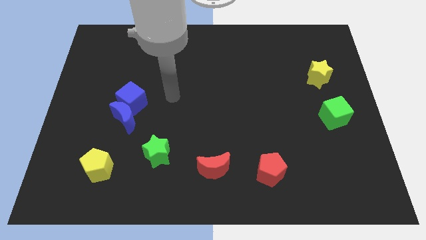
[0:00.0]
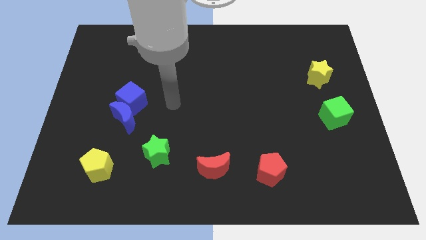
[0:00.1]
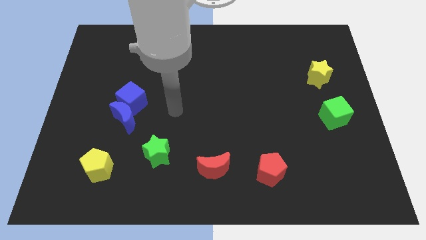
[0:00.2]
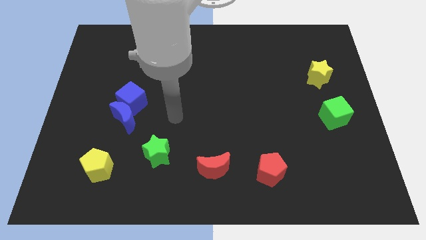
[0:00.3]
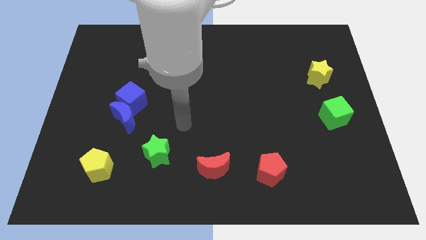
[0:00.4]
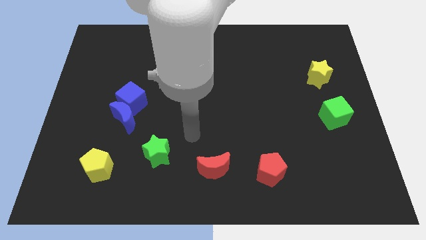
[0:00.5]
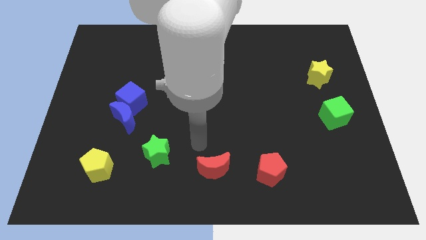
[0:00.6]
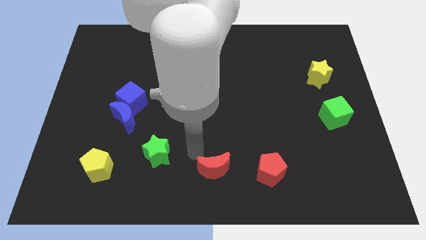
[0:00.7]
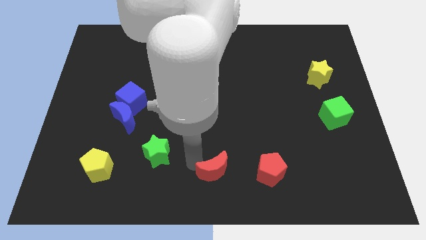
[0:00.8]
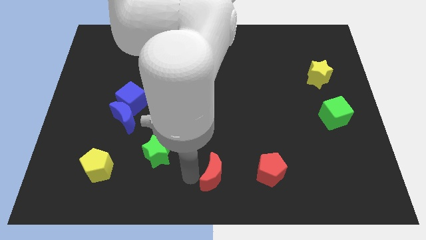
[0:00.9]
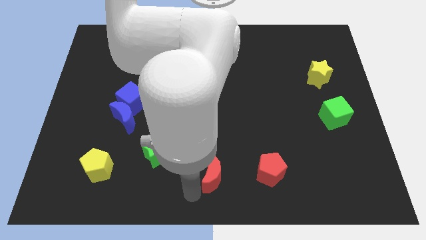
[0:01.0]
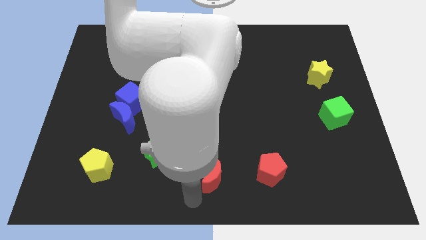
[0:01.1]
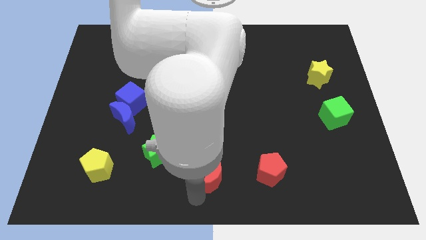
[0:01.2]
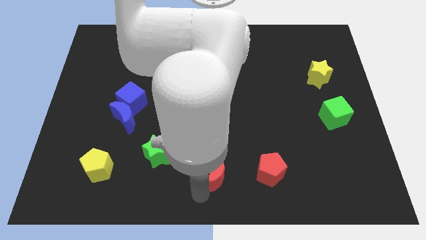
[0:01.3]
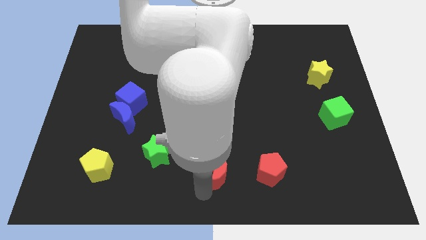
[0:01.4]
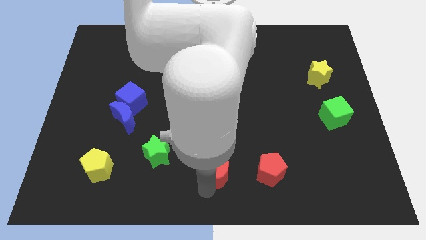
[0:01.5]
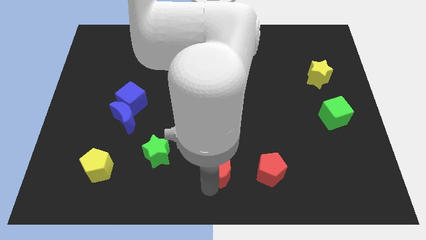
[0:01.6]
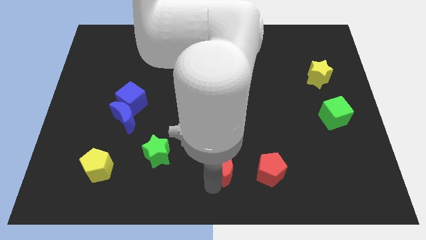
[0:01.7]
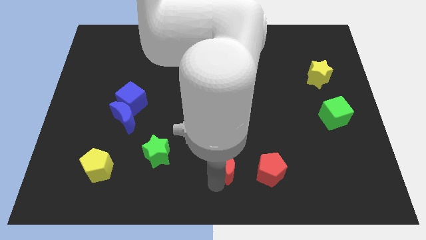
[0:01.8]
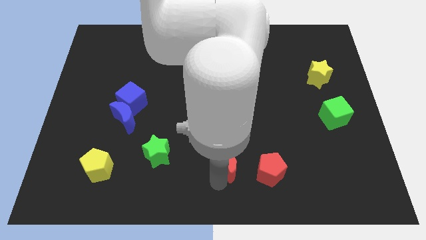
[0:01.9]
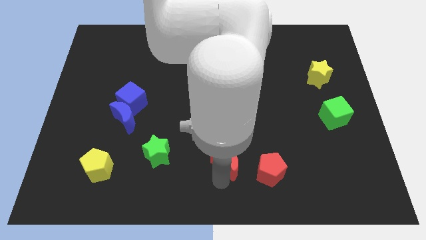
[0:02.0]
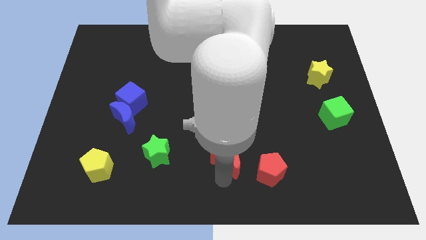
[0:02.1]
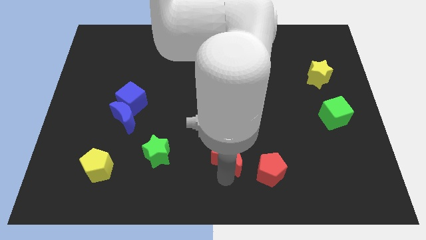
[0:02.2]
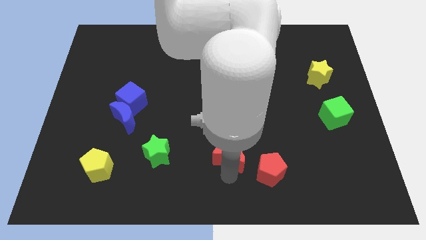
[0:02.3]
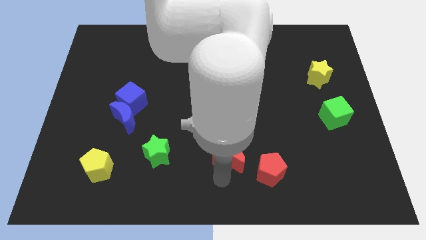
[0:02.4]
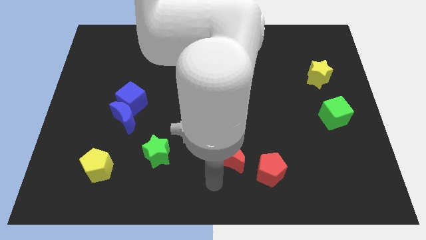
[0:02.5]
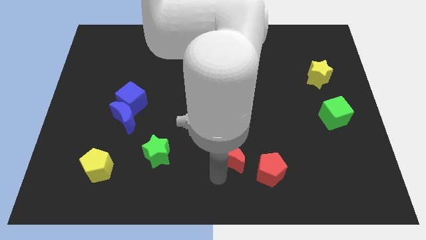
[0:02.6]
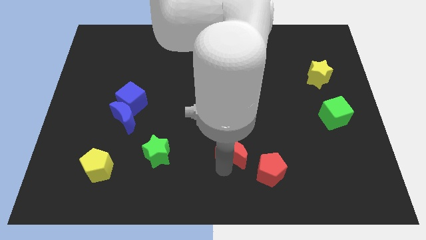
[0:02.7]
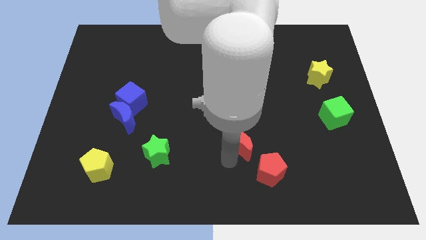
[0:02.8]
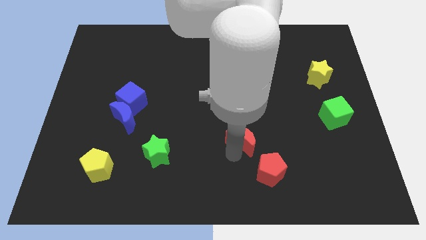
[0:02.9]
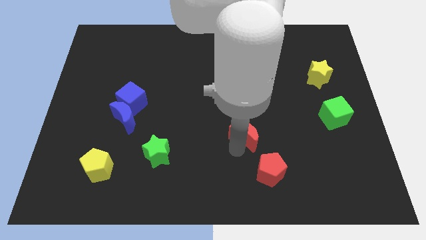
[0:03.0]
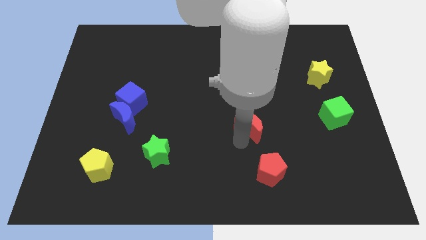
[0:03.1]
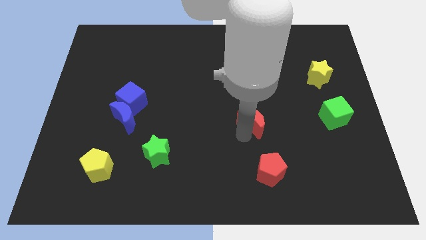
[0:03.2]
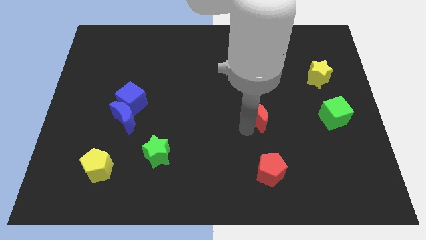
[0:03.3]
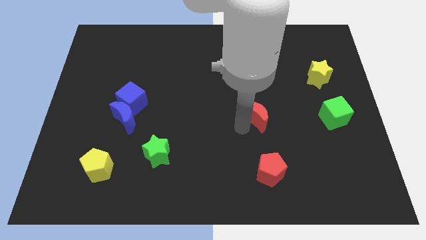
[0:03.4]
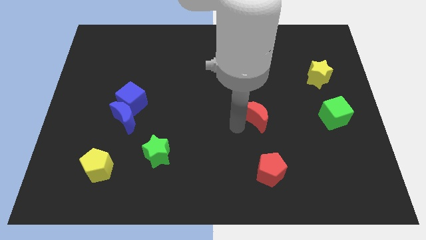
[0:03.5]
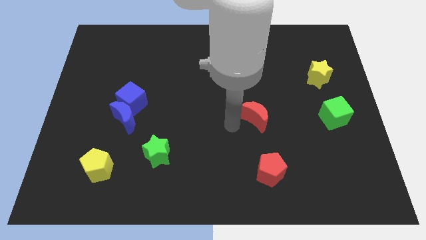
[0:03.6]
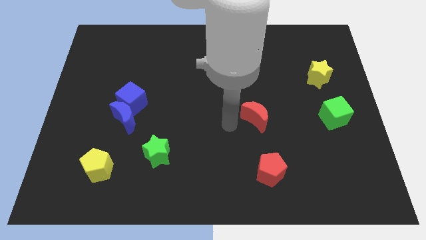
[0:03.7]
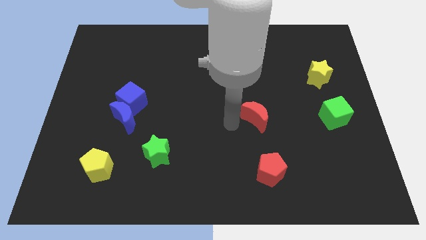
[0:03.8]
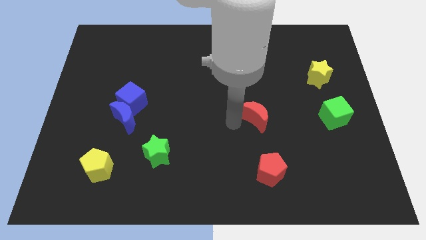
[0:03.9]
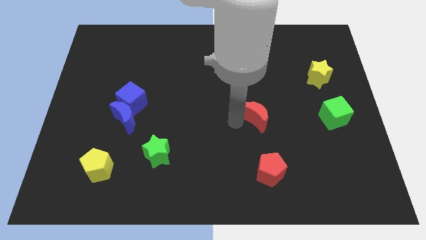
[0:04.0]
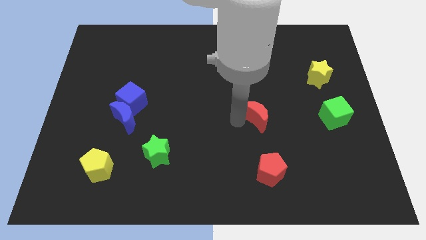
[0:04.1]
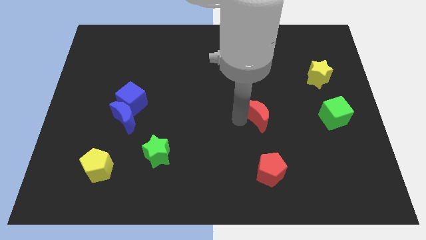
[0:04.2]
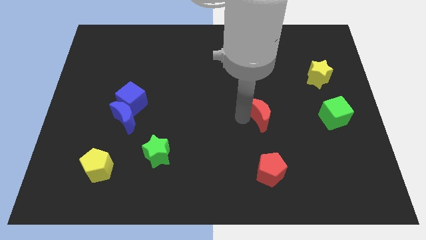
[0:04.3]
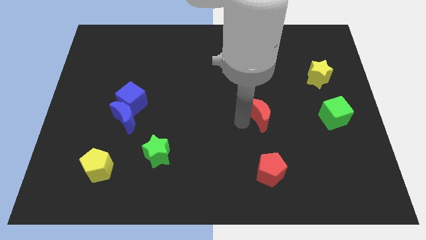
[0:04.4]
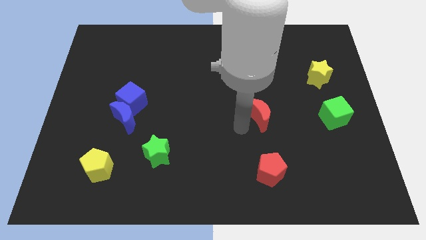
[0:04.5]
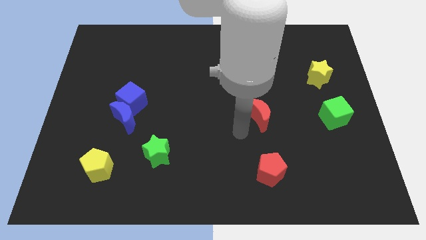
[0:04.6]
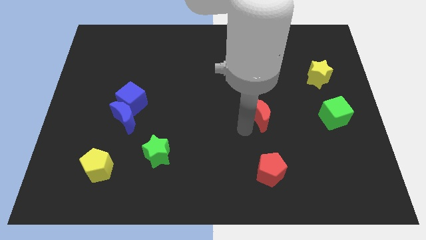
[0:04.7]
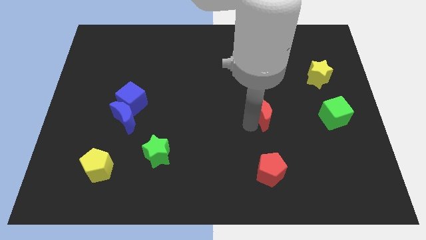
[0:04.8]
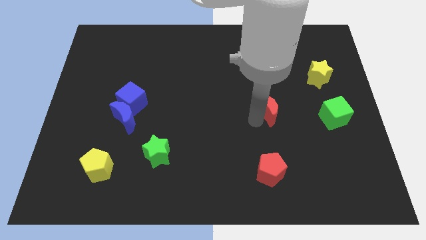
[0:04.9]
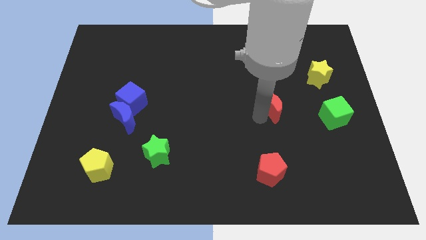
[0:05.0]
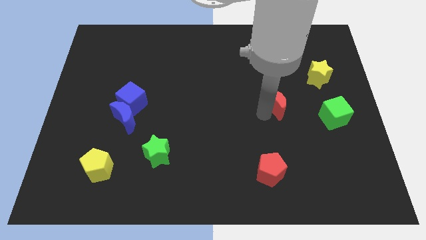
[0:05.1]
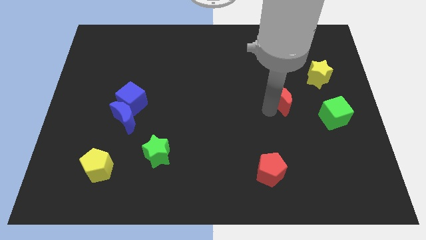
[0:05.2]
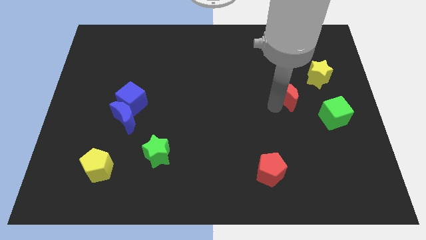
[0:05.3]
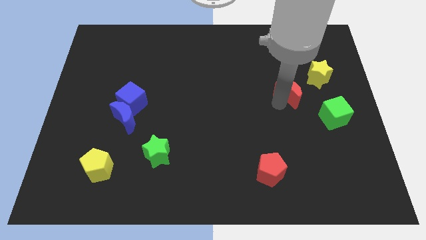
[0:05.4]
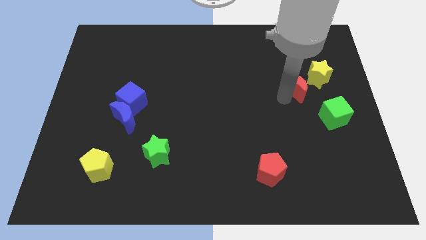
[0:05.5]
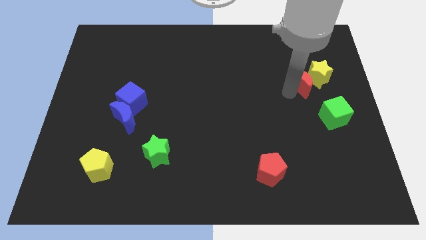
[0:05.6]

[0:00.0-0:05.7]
put the red moon towards the yellow star

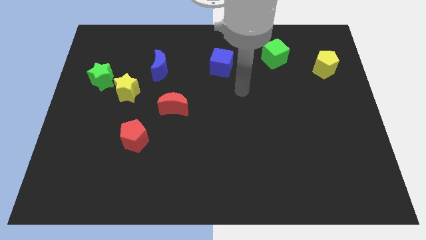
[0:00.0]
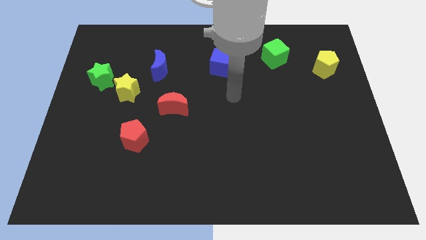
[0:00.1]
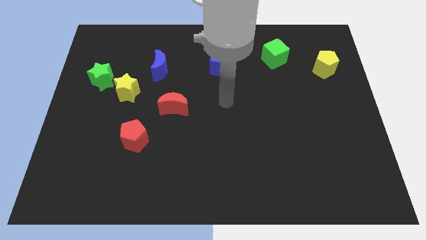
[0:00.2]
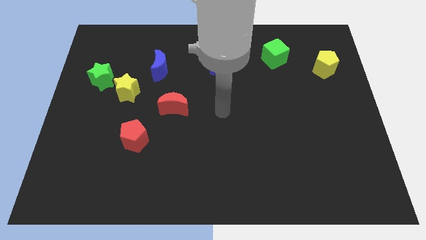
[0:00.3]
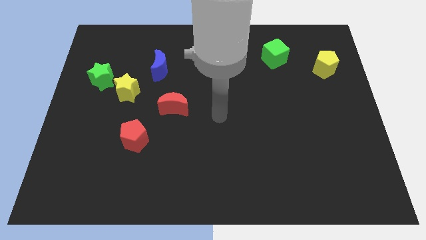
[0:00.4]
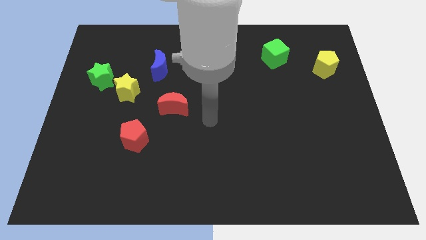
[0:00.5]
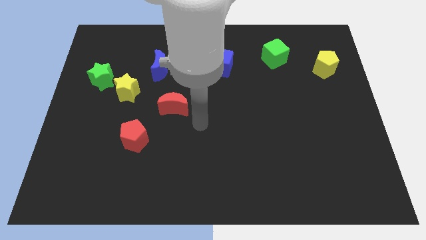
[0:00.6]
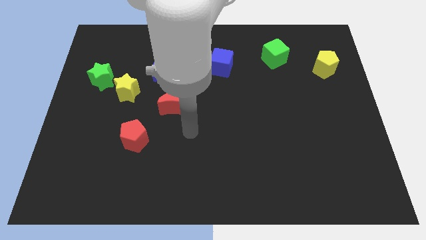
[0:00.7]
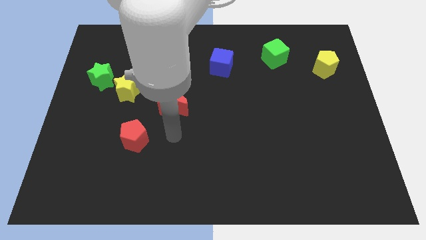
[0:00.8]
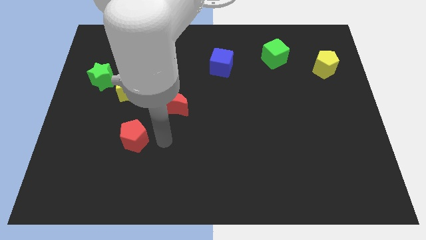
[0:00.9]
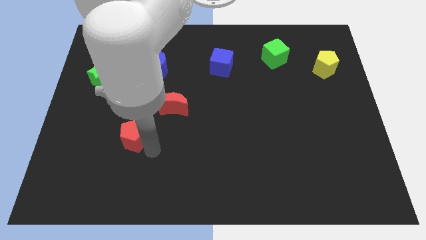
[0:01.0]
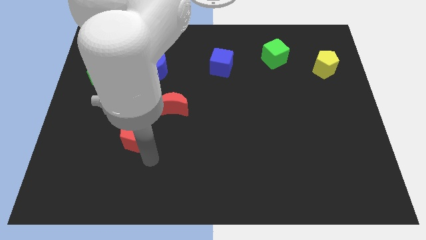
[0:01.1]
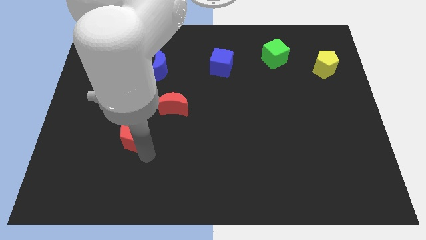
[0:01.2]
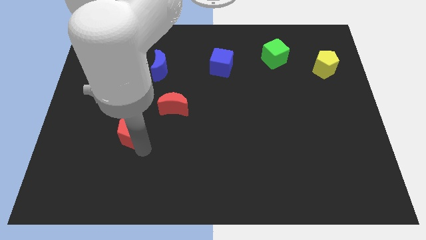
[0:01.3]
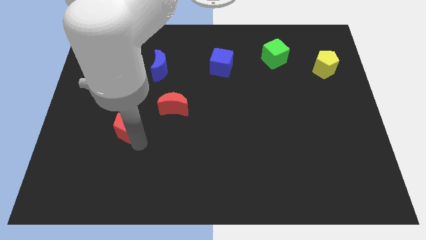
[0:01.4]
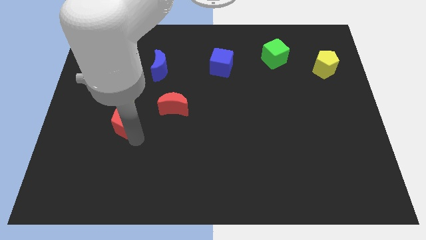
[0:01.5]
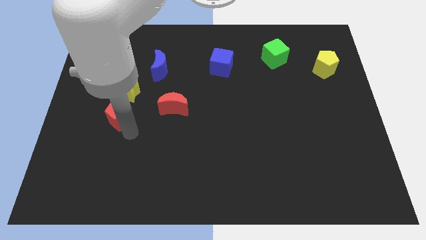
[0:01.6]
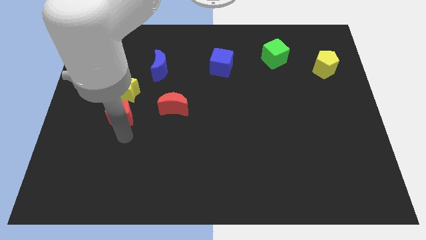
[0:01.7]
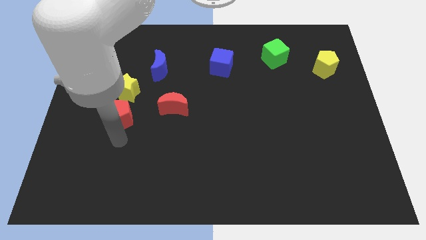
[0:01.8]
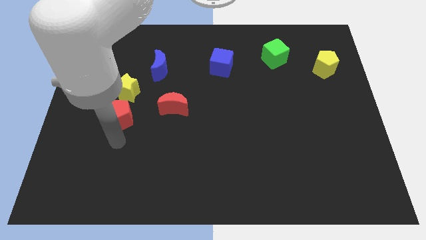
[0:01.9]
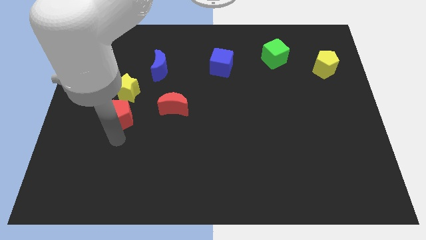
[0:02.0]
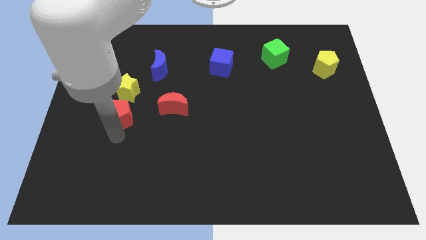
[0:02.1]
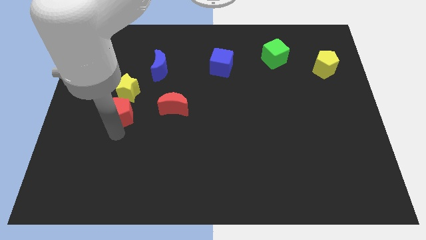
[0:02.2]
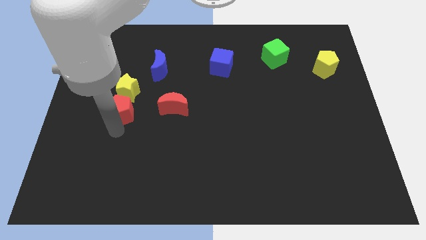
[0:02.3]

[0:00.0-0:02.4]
push the red pentagon next to the yellow star

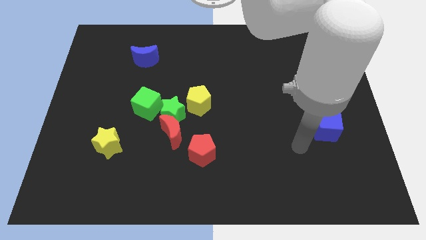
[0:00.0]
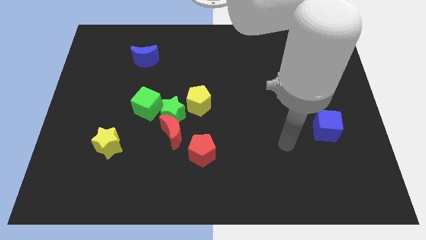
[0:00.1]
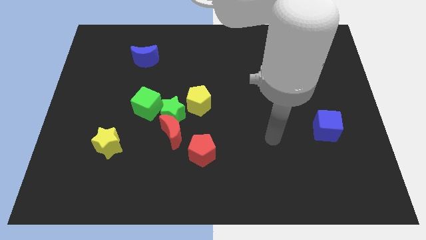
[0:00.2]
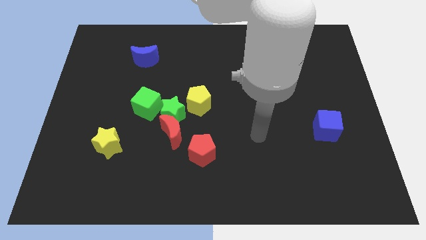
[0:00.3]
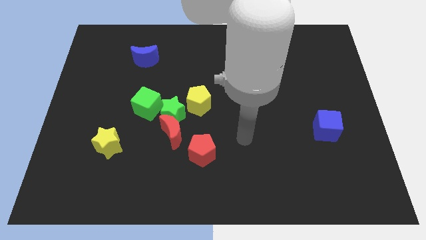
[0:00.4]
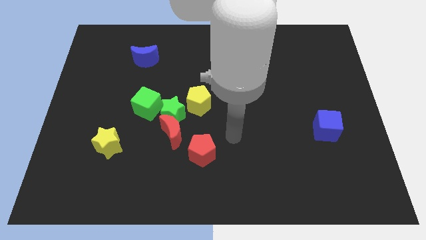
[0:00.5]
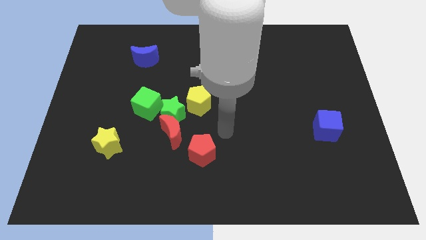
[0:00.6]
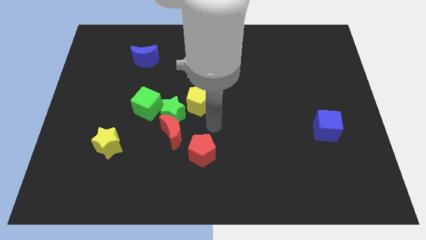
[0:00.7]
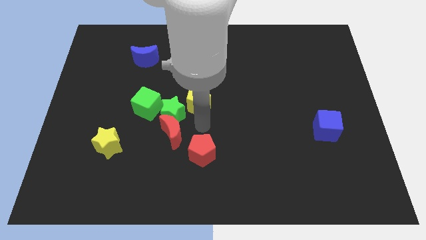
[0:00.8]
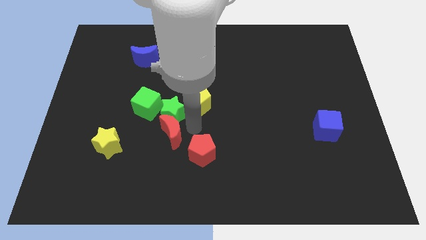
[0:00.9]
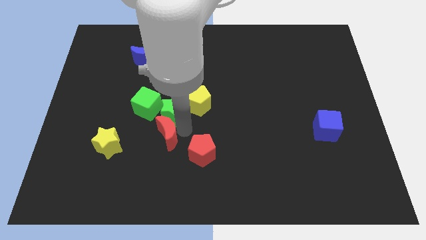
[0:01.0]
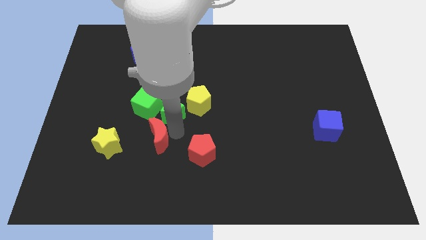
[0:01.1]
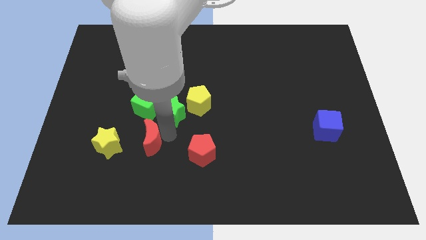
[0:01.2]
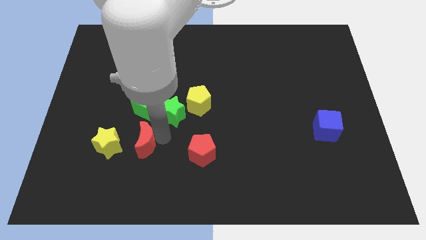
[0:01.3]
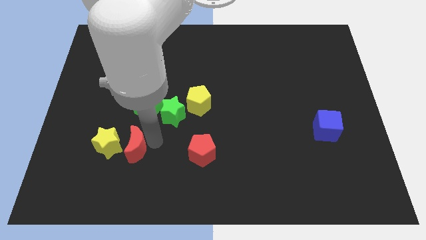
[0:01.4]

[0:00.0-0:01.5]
move the red moon close to the yellow star
